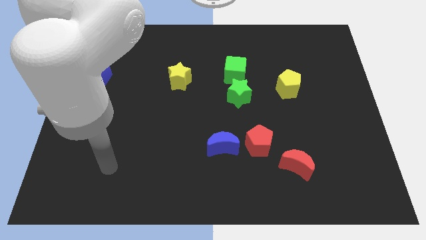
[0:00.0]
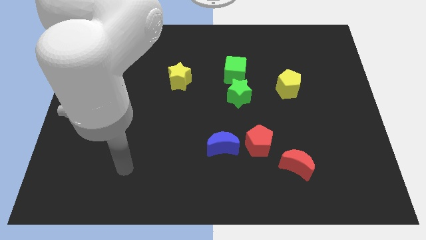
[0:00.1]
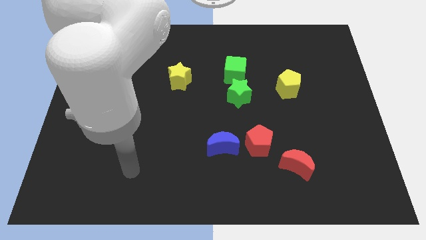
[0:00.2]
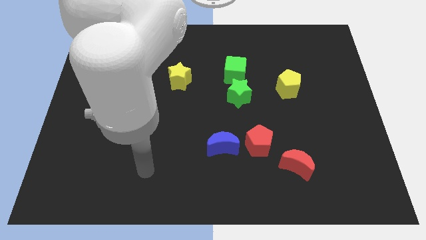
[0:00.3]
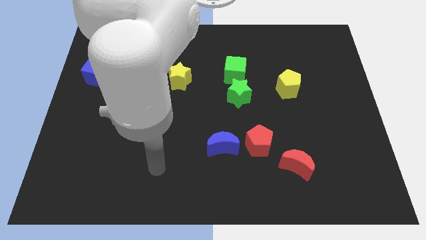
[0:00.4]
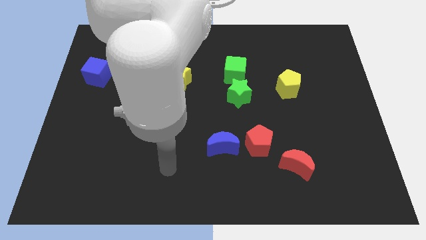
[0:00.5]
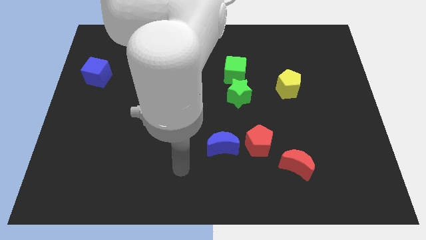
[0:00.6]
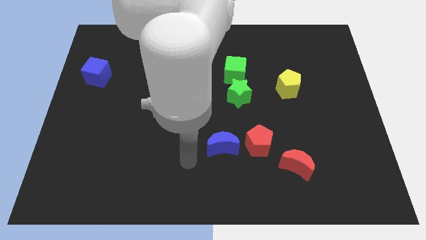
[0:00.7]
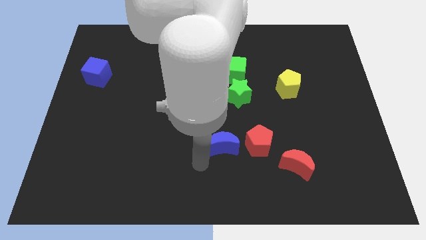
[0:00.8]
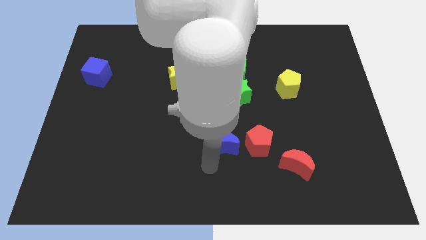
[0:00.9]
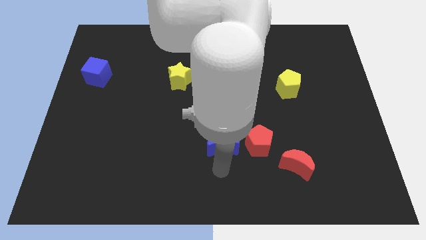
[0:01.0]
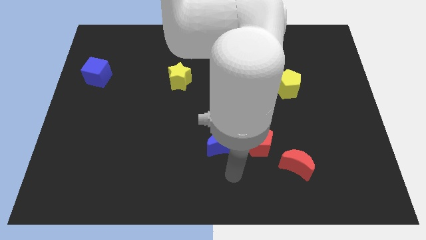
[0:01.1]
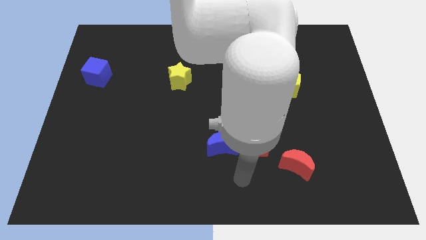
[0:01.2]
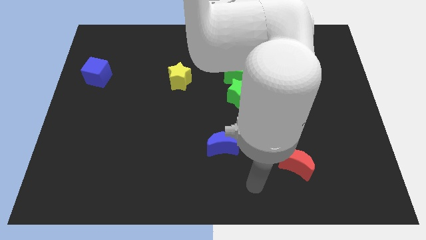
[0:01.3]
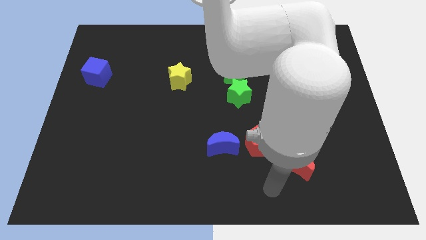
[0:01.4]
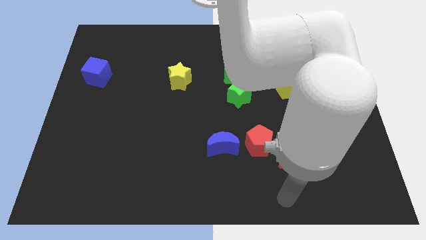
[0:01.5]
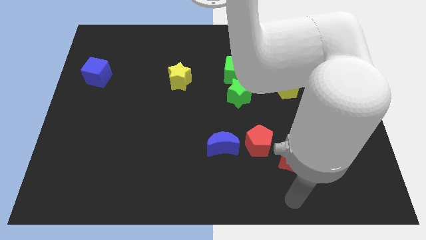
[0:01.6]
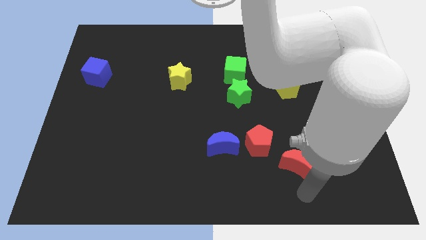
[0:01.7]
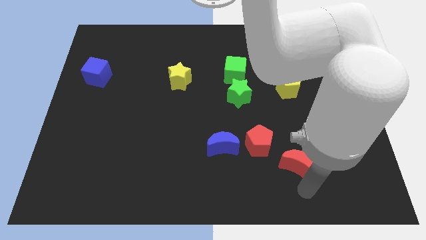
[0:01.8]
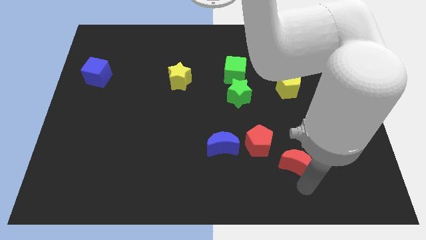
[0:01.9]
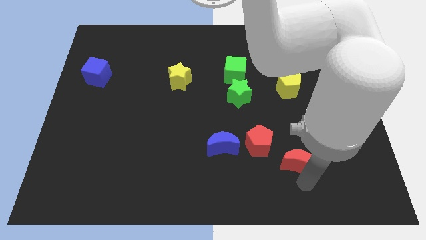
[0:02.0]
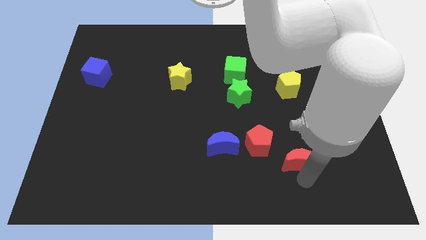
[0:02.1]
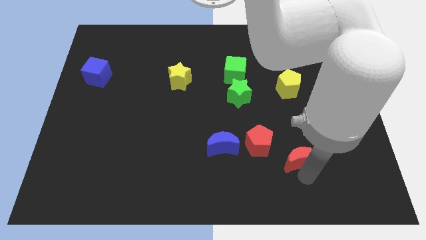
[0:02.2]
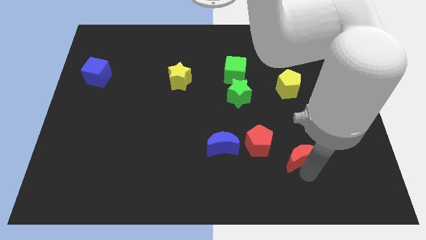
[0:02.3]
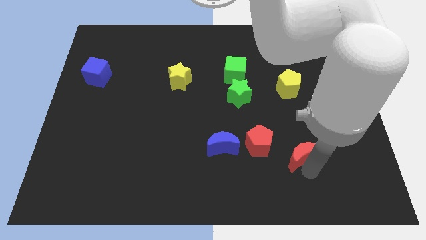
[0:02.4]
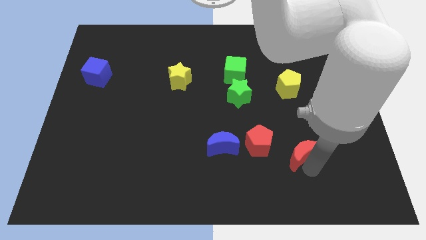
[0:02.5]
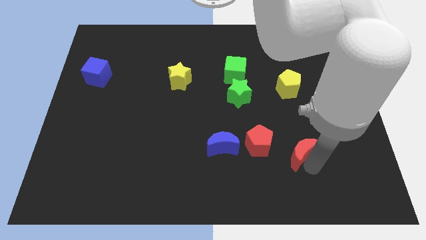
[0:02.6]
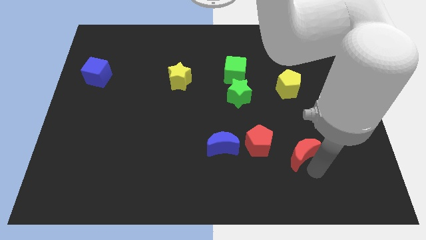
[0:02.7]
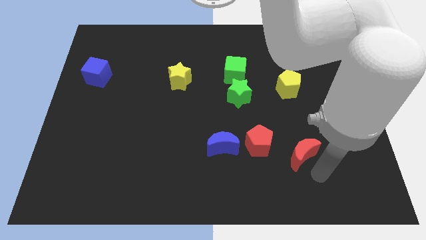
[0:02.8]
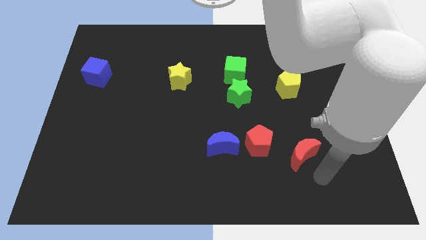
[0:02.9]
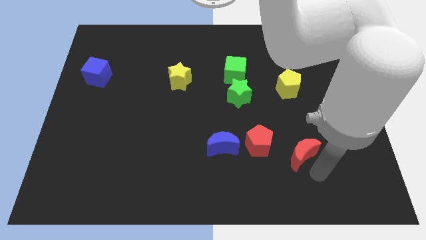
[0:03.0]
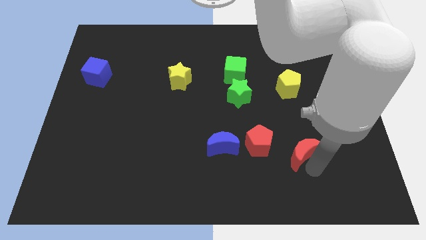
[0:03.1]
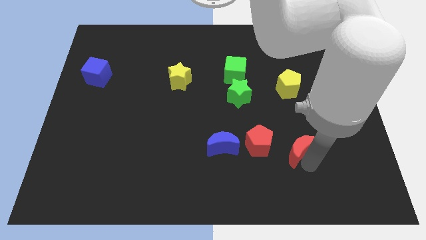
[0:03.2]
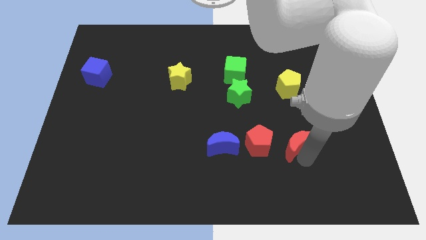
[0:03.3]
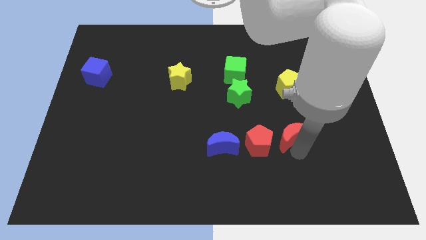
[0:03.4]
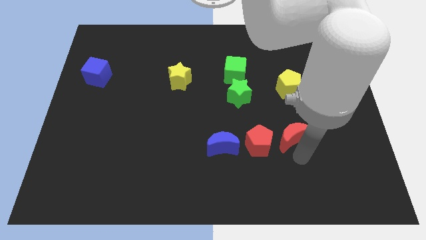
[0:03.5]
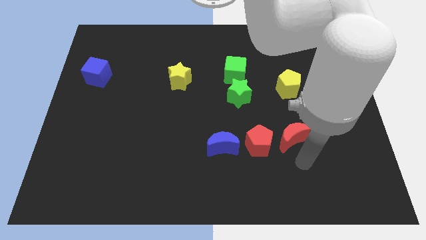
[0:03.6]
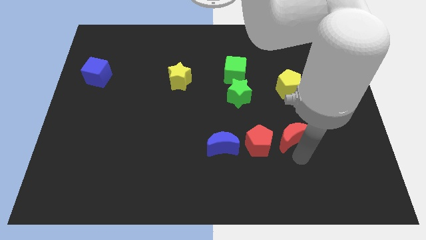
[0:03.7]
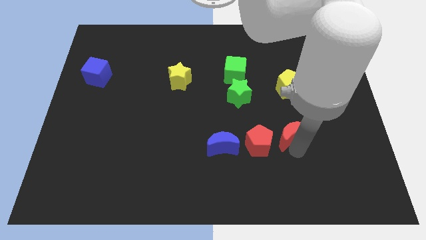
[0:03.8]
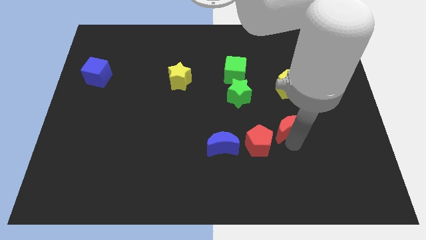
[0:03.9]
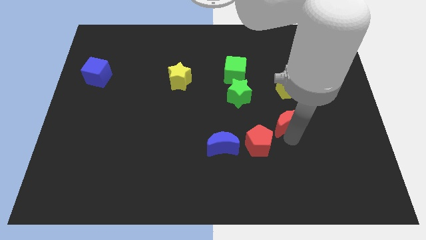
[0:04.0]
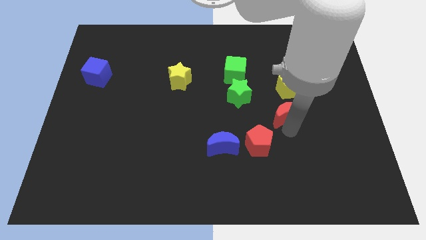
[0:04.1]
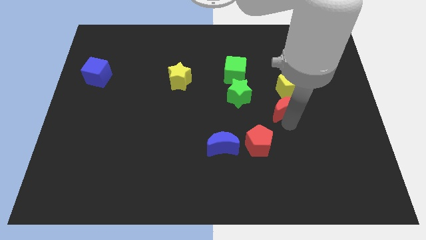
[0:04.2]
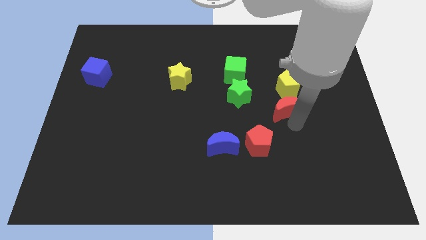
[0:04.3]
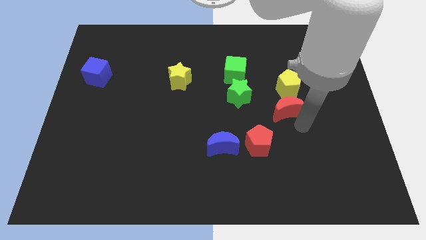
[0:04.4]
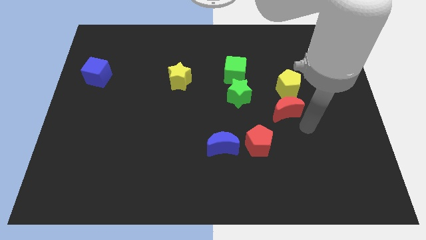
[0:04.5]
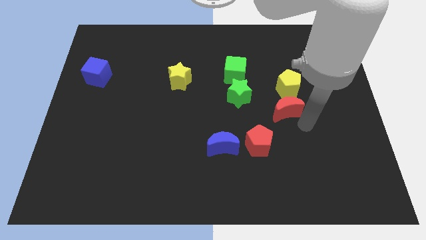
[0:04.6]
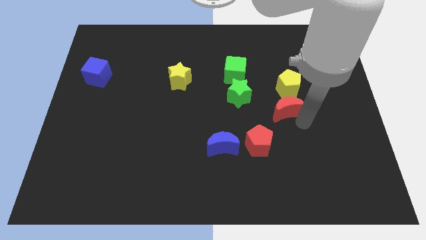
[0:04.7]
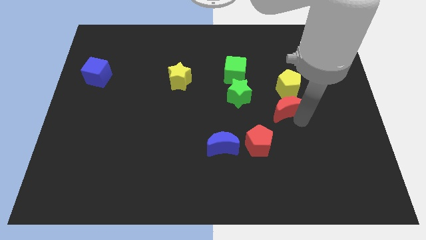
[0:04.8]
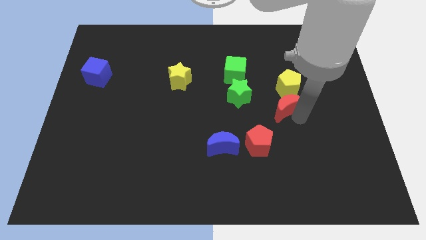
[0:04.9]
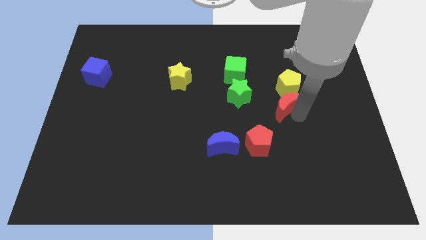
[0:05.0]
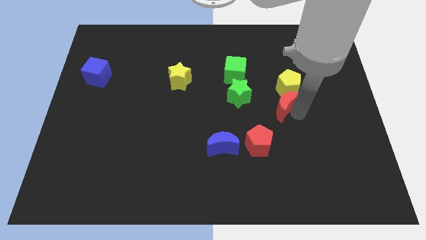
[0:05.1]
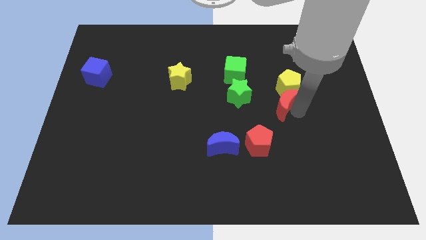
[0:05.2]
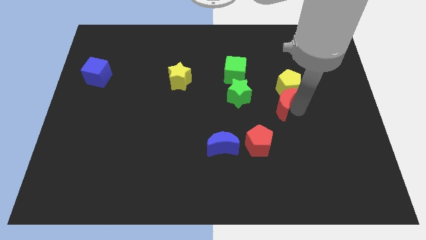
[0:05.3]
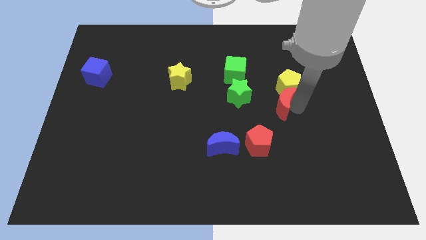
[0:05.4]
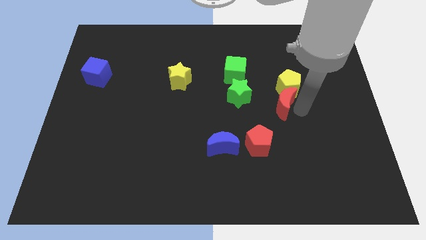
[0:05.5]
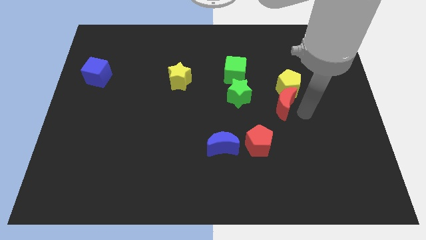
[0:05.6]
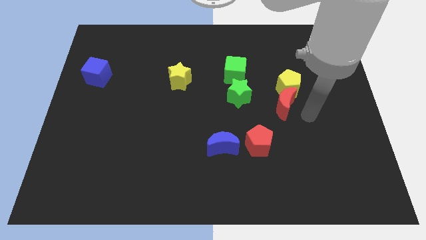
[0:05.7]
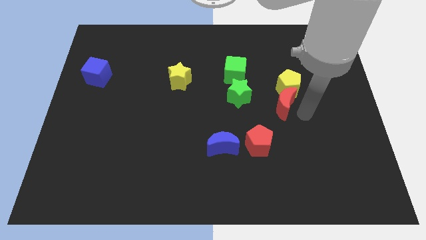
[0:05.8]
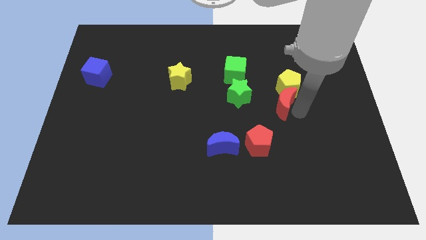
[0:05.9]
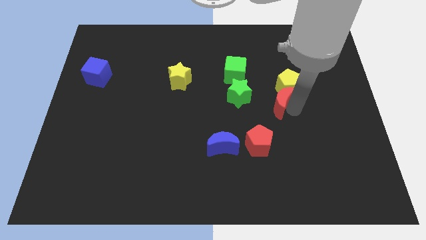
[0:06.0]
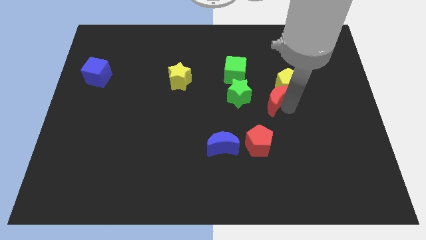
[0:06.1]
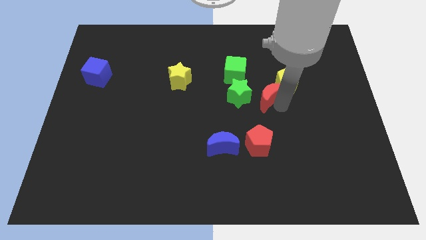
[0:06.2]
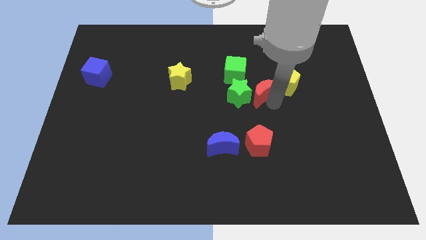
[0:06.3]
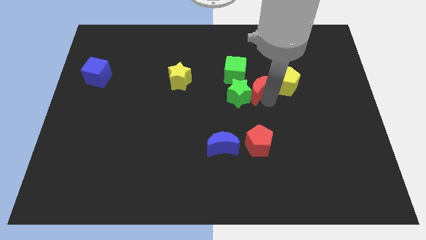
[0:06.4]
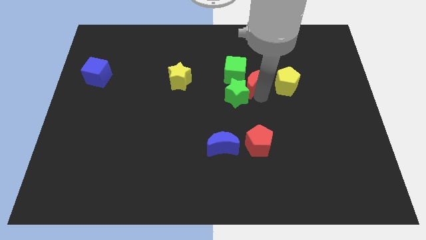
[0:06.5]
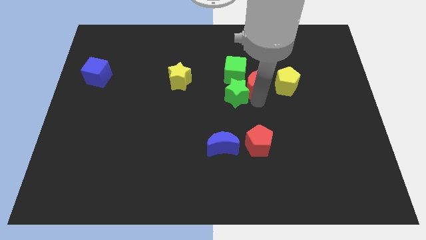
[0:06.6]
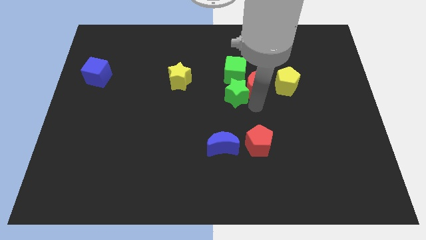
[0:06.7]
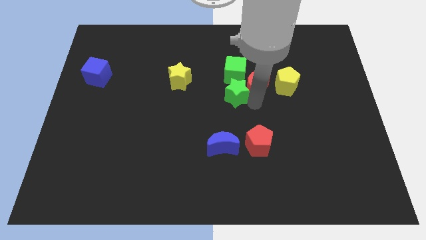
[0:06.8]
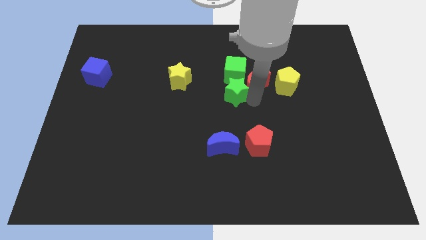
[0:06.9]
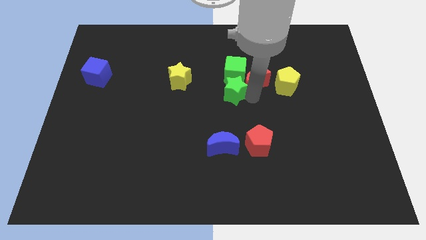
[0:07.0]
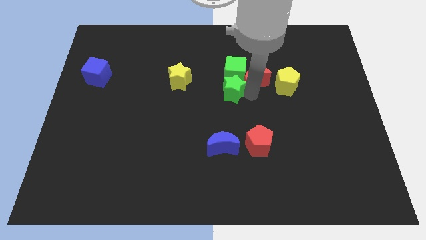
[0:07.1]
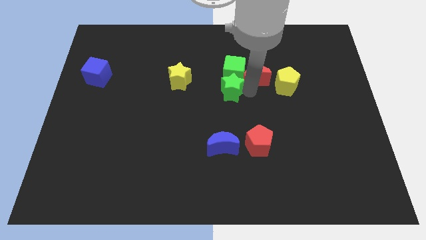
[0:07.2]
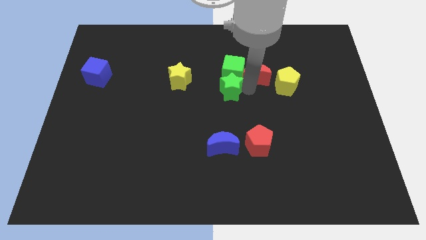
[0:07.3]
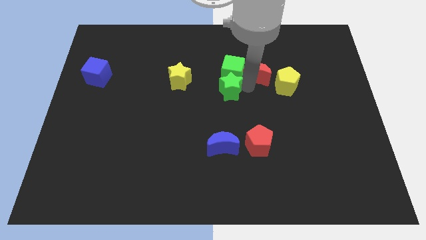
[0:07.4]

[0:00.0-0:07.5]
move the red moon to the top right side of the green cube
